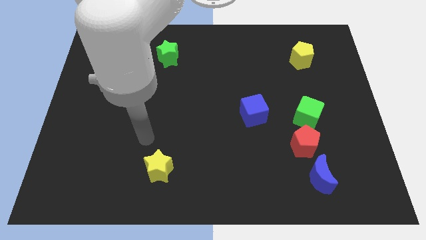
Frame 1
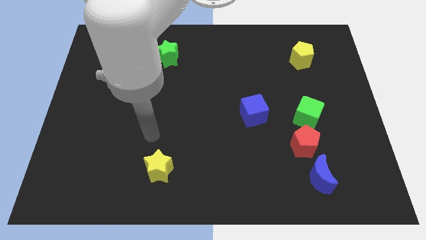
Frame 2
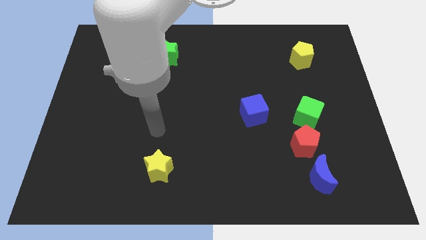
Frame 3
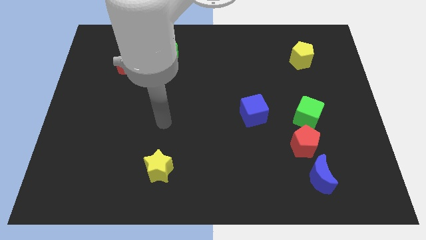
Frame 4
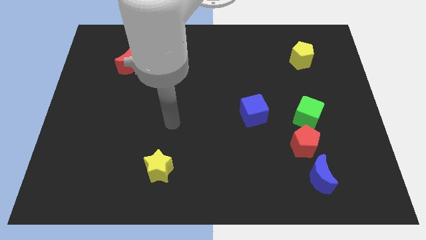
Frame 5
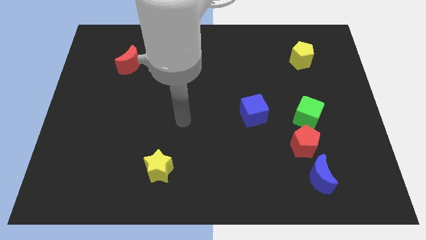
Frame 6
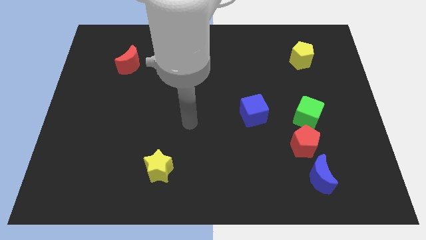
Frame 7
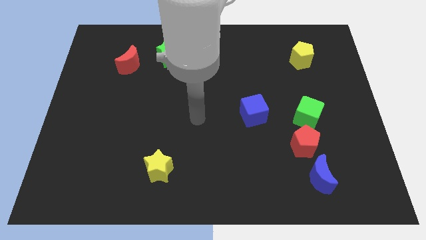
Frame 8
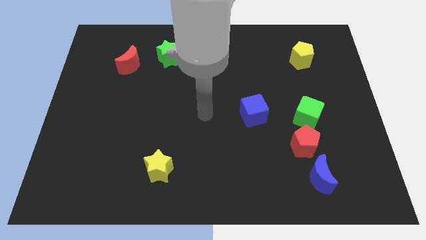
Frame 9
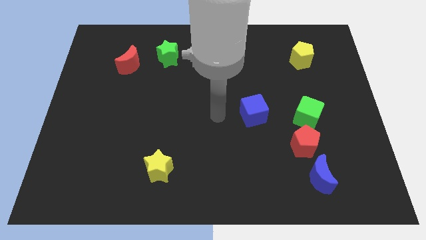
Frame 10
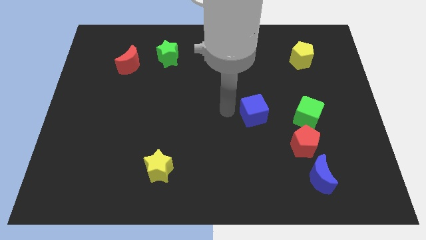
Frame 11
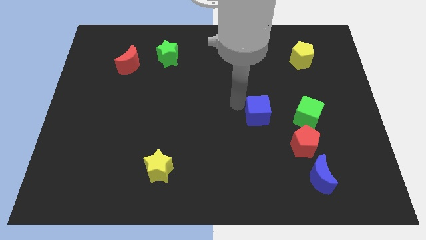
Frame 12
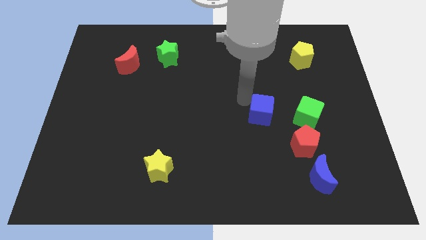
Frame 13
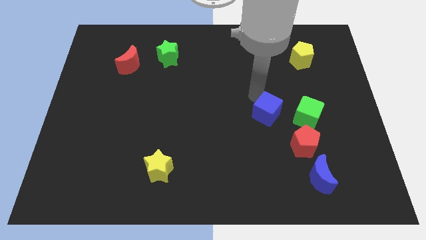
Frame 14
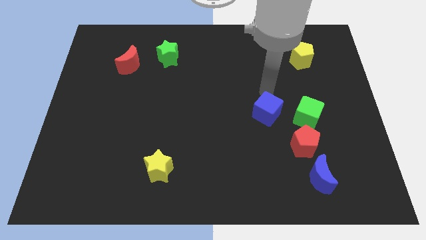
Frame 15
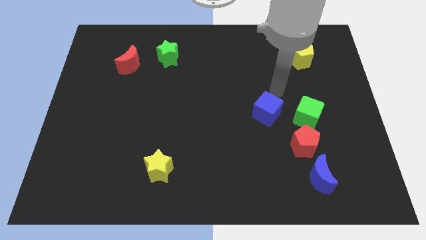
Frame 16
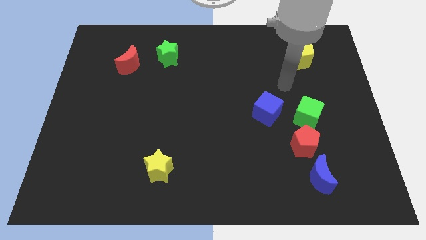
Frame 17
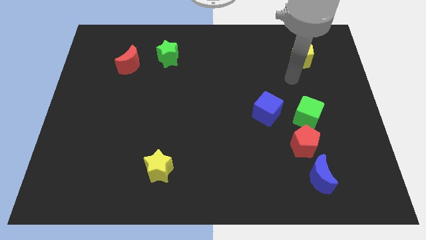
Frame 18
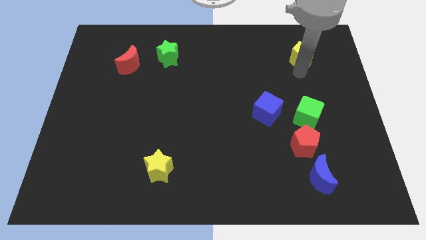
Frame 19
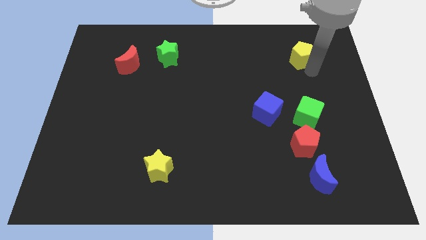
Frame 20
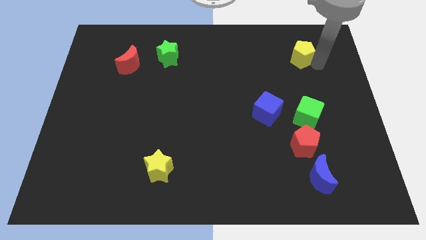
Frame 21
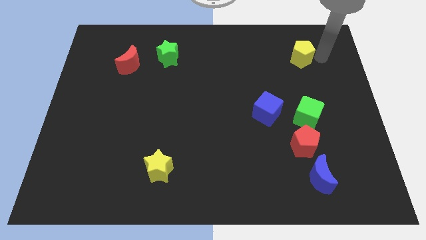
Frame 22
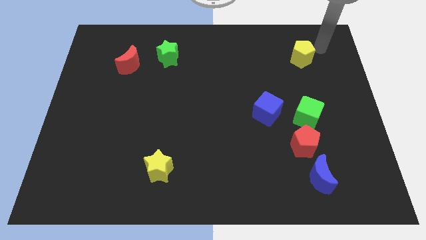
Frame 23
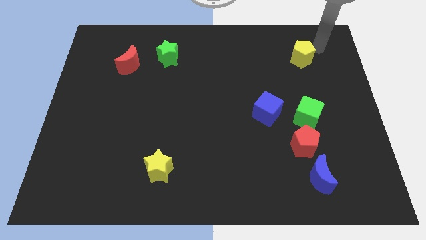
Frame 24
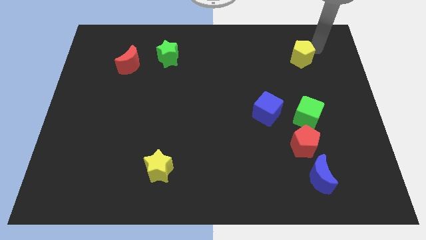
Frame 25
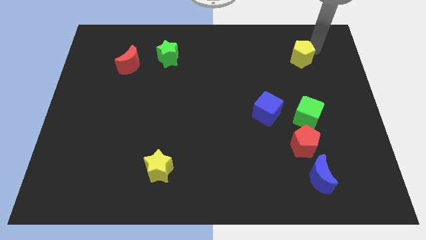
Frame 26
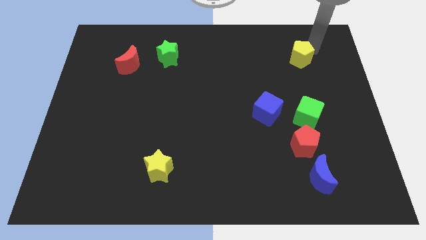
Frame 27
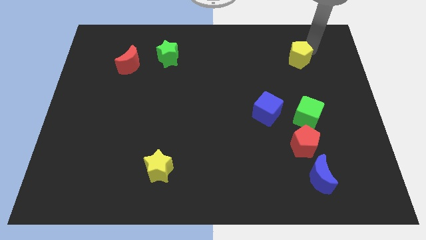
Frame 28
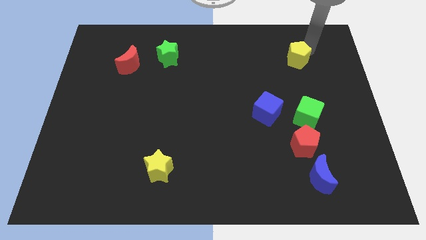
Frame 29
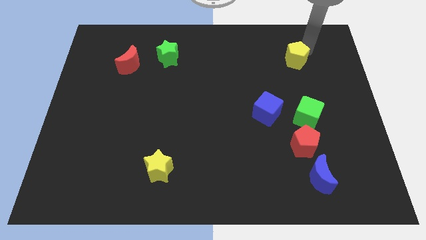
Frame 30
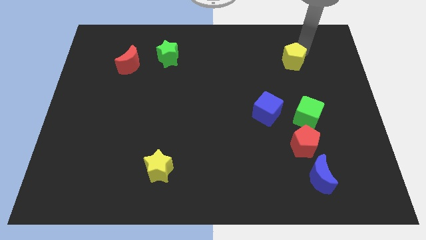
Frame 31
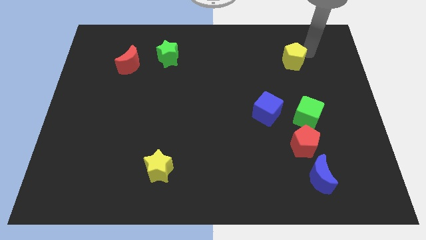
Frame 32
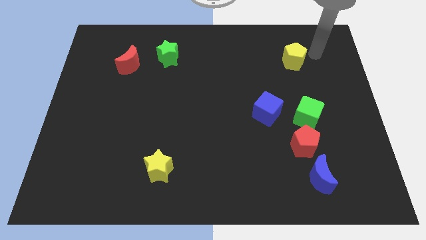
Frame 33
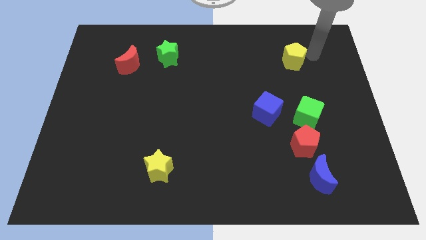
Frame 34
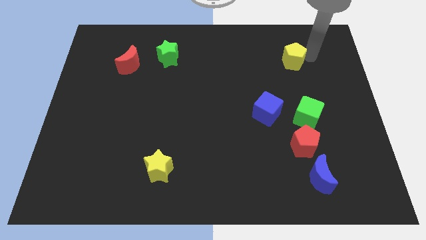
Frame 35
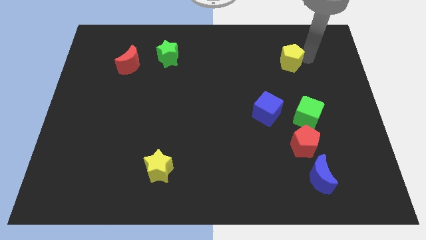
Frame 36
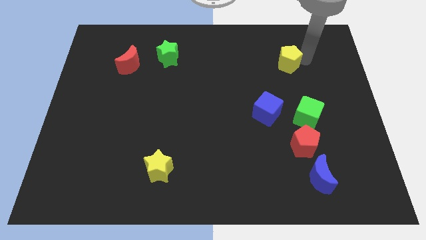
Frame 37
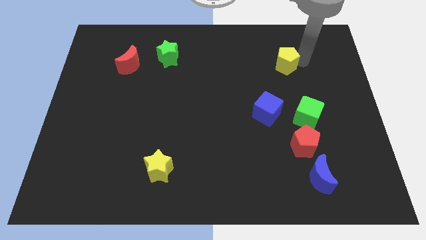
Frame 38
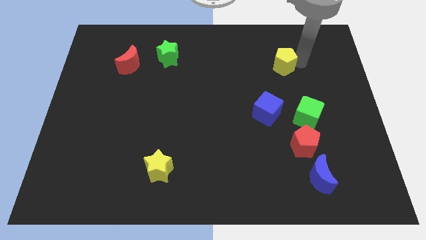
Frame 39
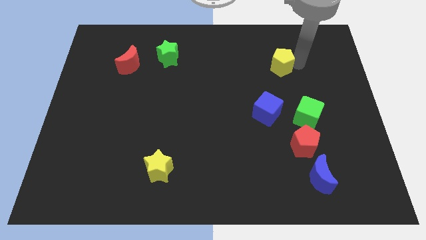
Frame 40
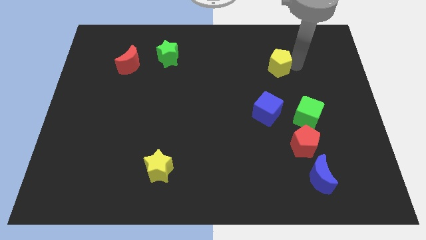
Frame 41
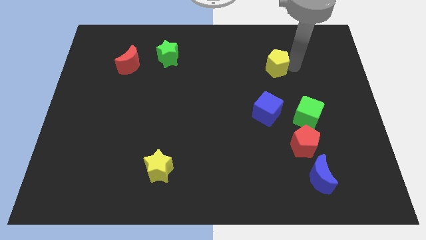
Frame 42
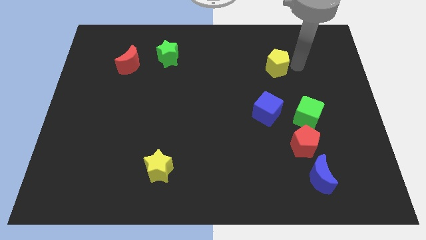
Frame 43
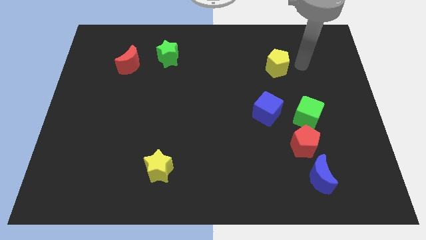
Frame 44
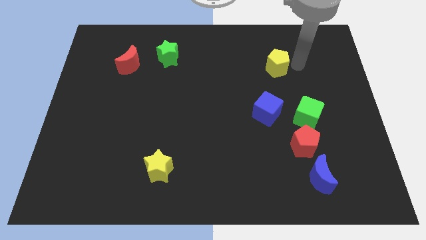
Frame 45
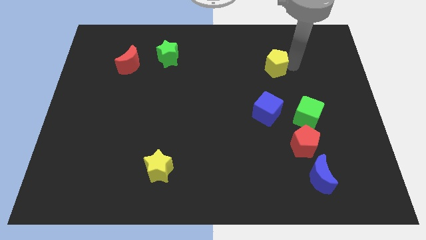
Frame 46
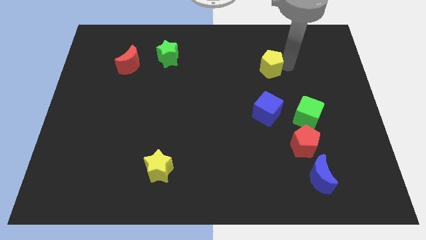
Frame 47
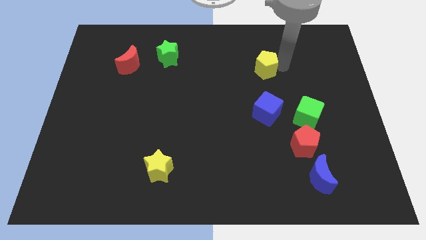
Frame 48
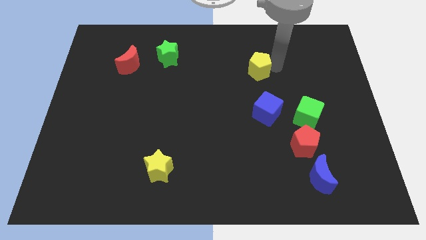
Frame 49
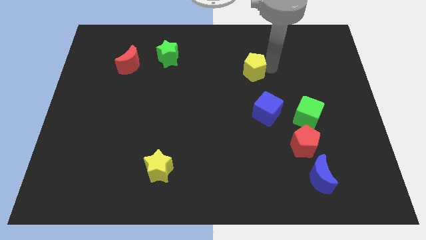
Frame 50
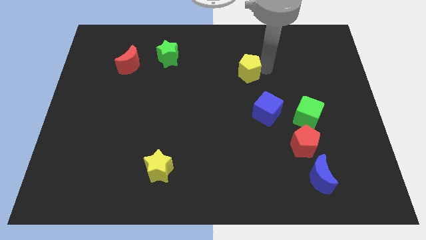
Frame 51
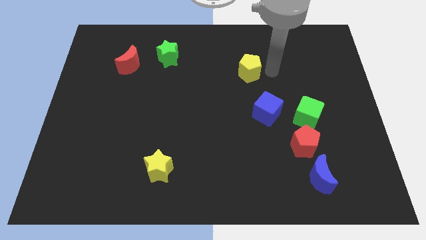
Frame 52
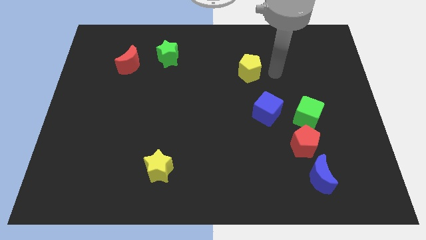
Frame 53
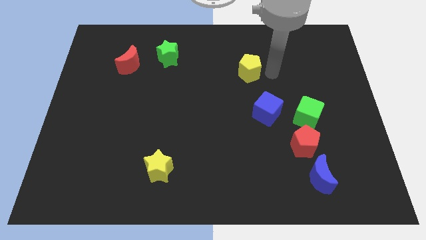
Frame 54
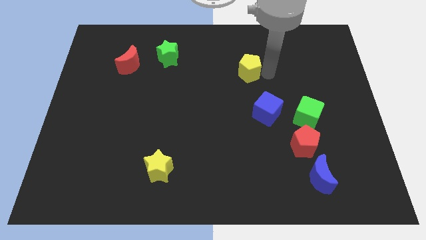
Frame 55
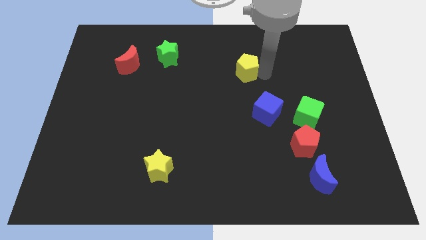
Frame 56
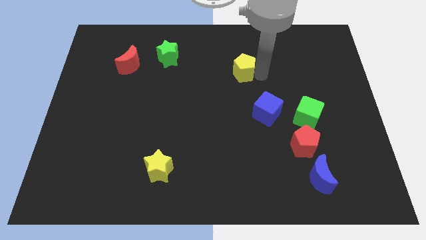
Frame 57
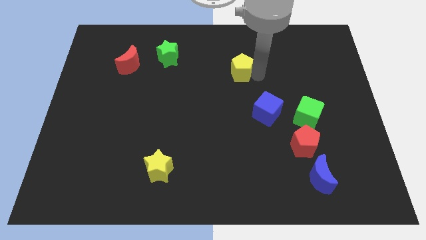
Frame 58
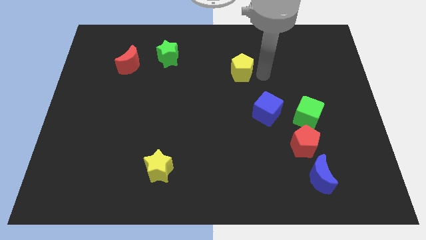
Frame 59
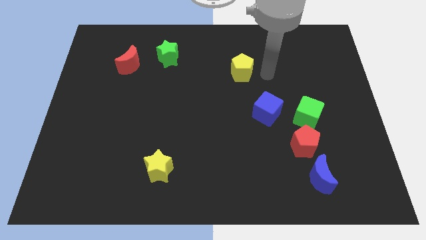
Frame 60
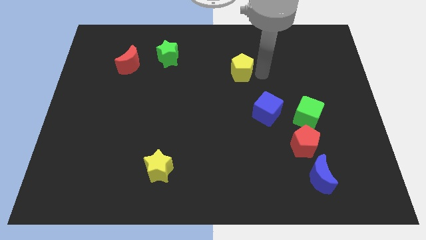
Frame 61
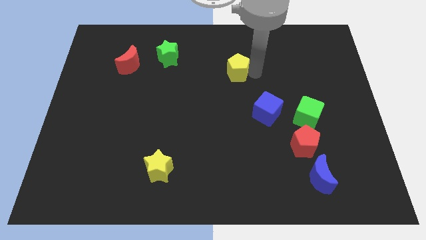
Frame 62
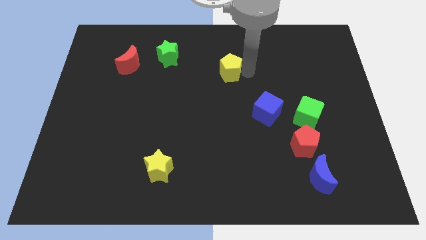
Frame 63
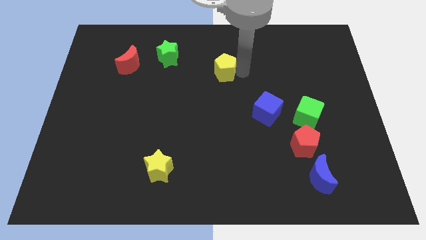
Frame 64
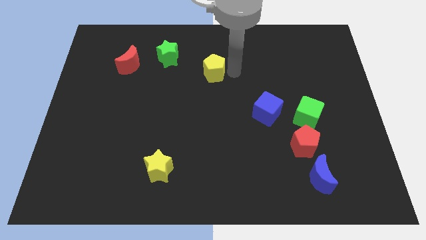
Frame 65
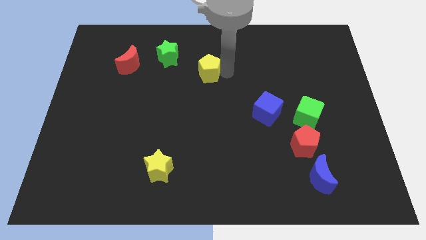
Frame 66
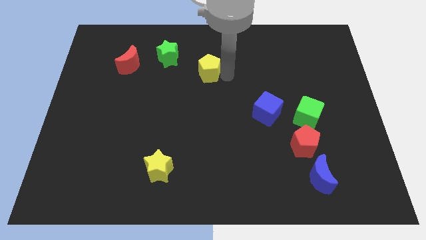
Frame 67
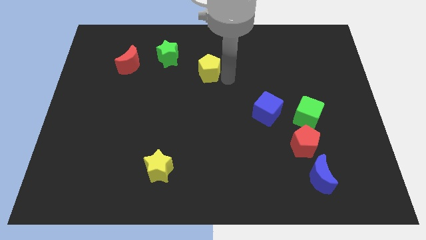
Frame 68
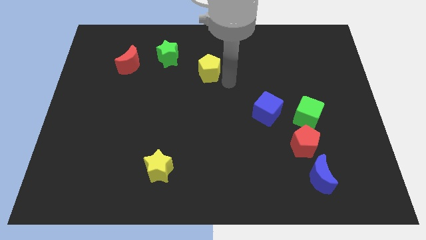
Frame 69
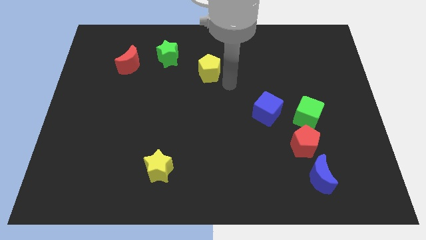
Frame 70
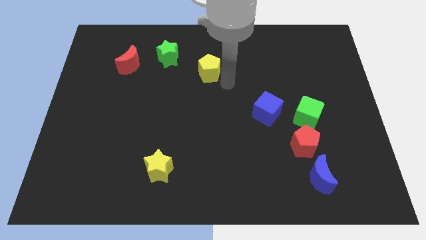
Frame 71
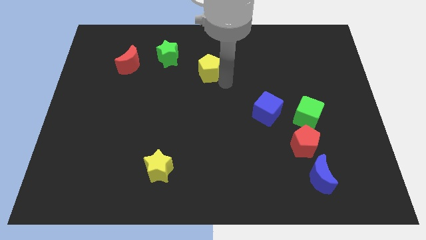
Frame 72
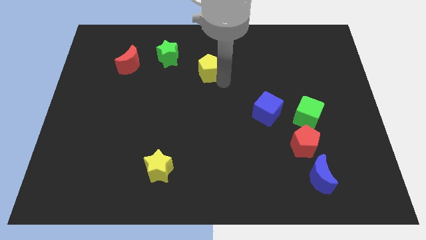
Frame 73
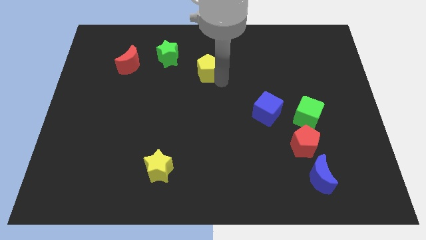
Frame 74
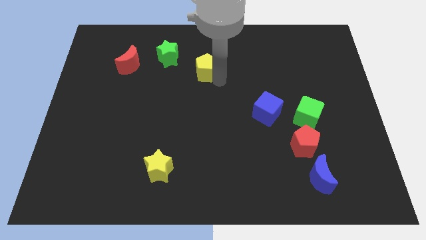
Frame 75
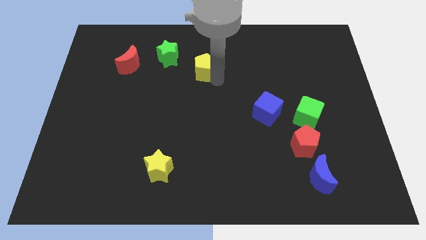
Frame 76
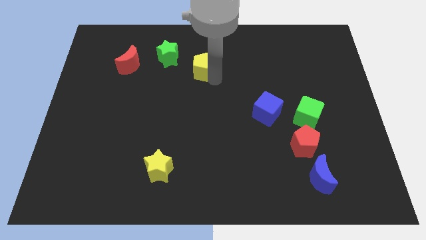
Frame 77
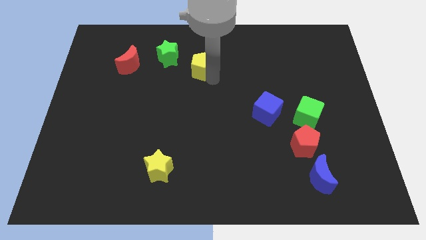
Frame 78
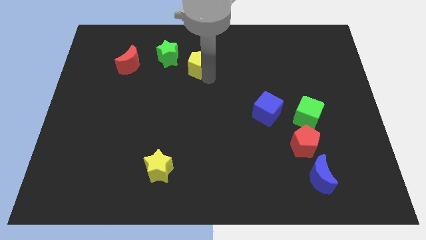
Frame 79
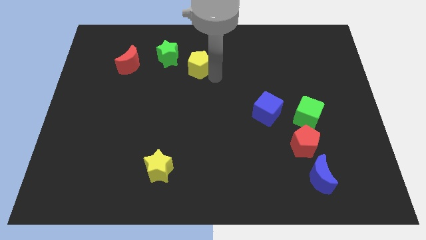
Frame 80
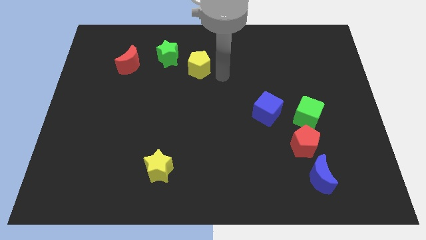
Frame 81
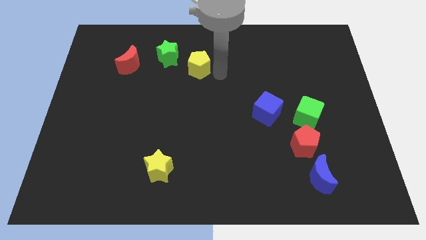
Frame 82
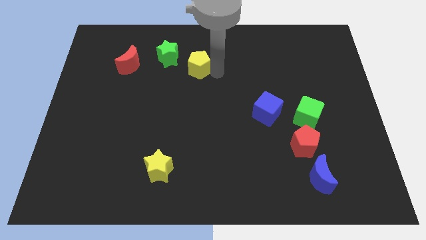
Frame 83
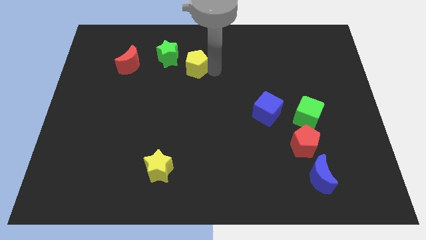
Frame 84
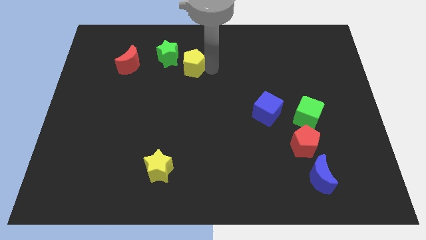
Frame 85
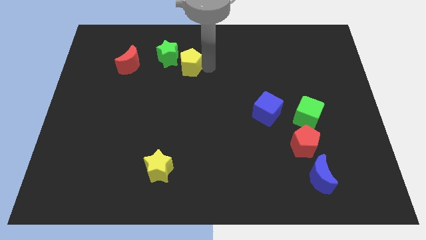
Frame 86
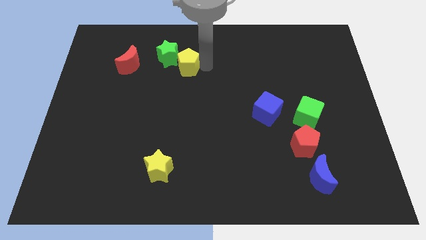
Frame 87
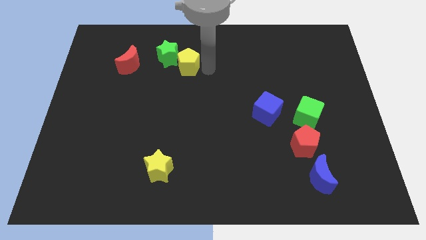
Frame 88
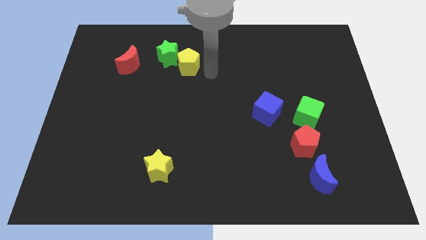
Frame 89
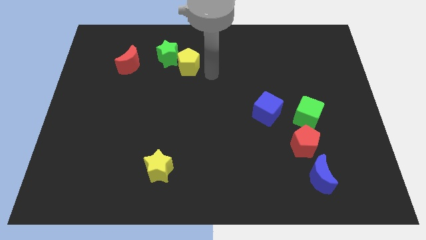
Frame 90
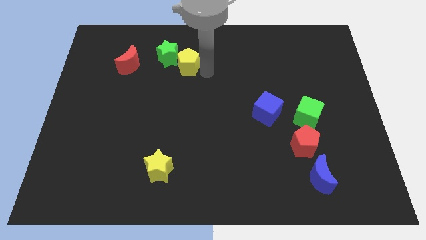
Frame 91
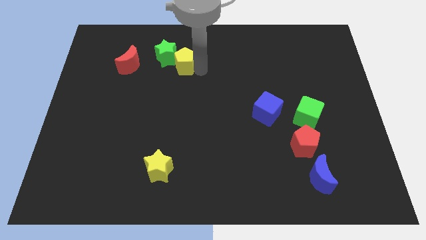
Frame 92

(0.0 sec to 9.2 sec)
slide the yellow pentagon close to the green star
